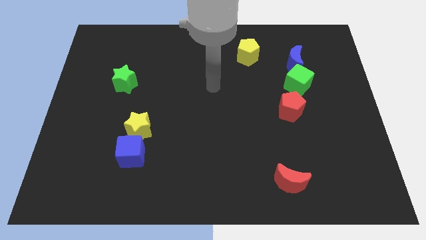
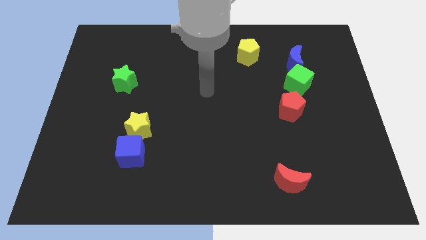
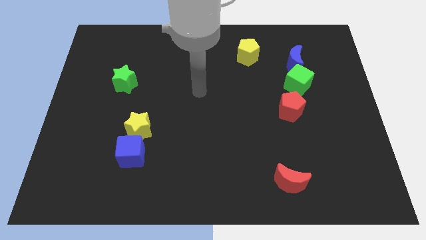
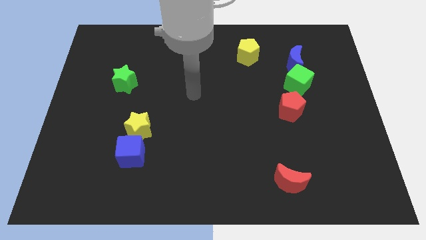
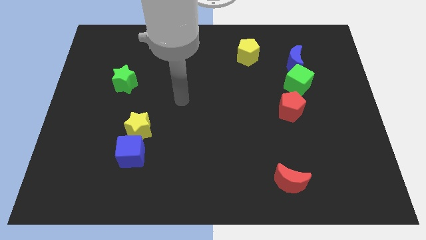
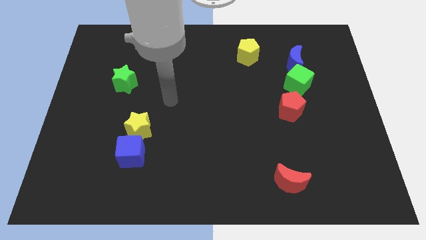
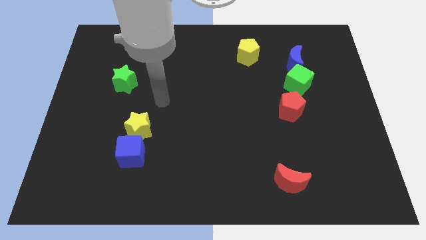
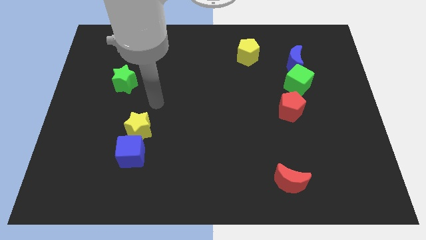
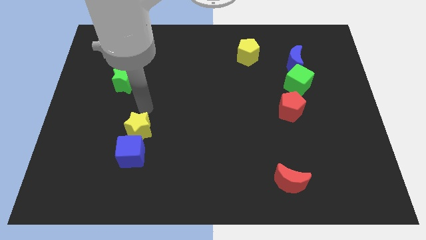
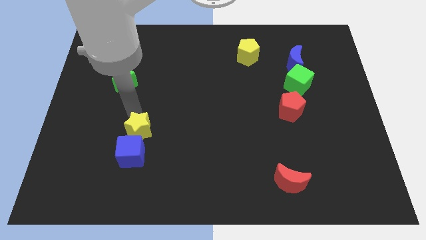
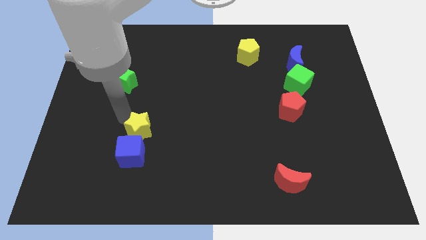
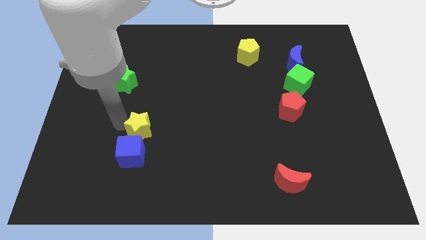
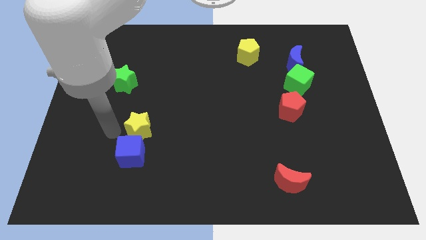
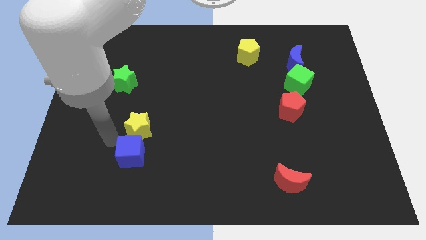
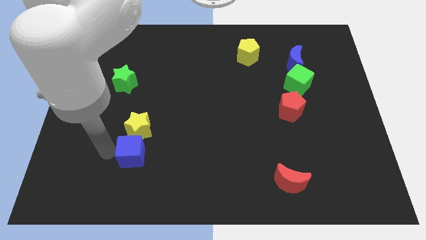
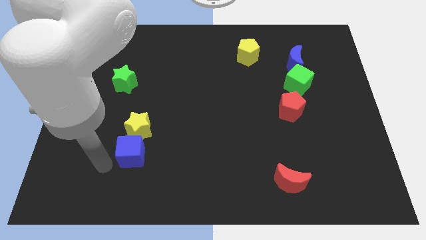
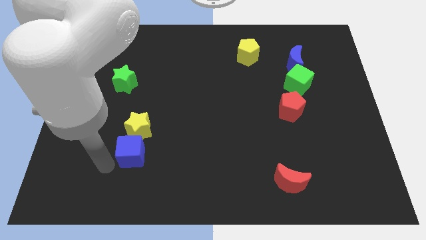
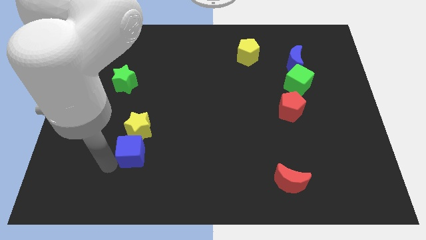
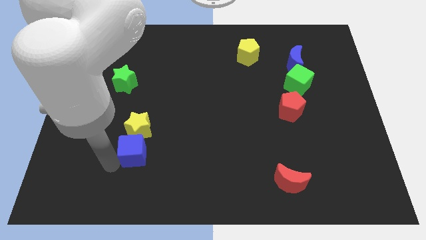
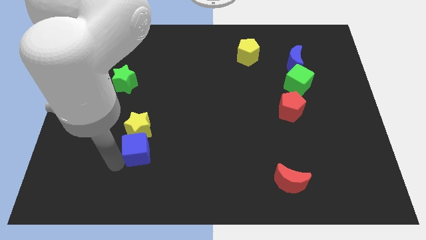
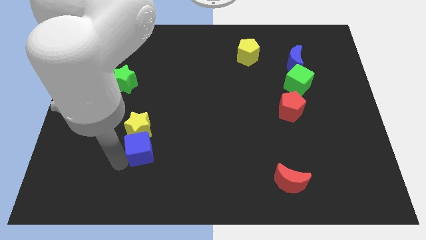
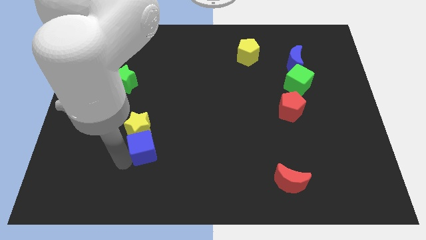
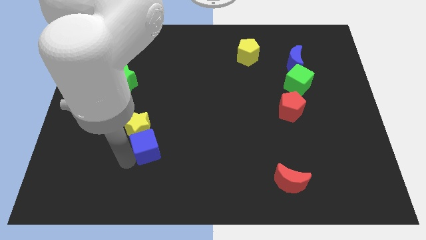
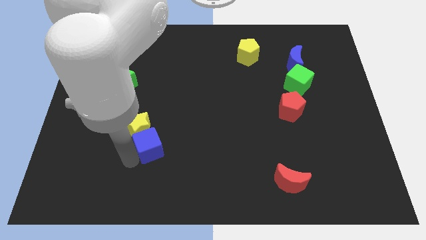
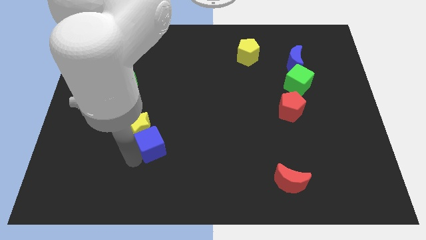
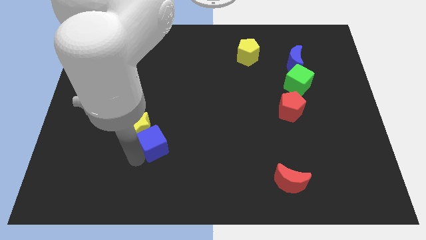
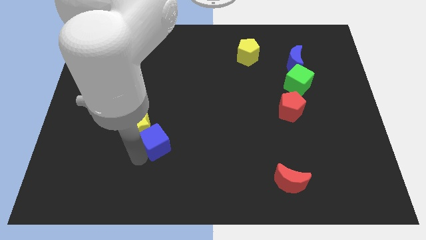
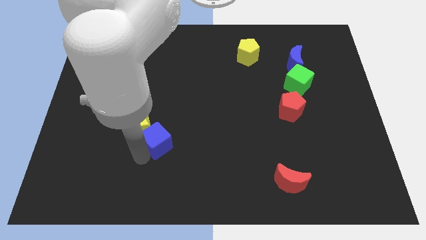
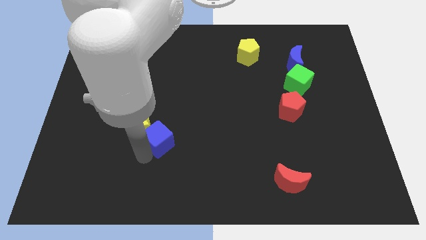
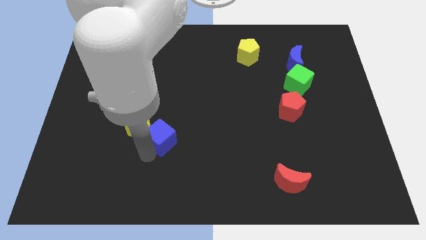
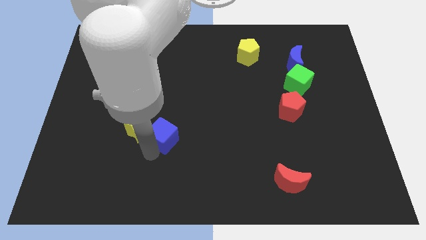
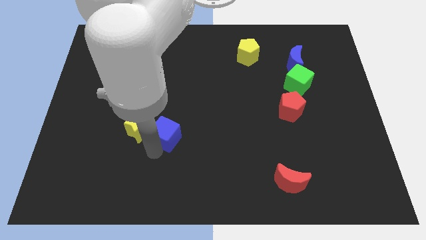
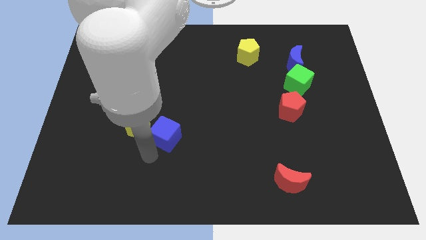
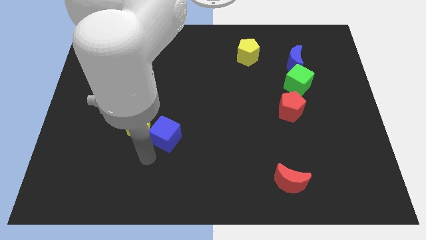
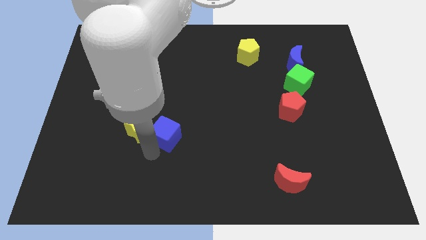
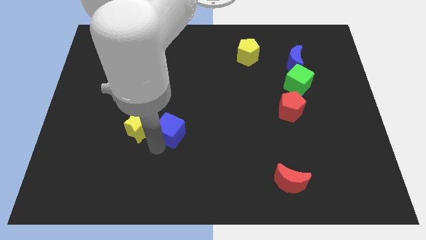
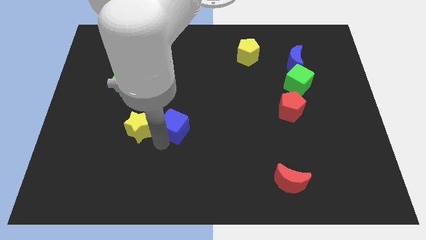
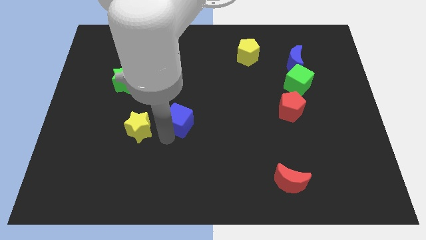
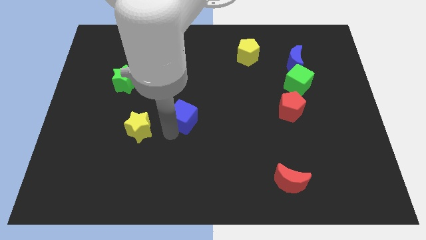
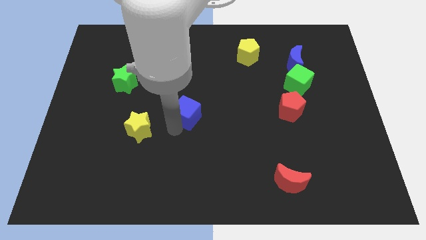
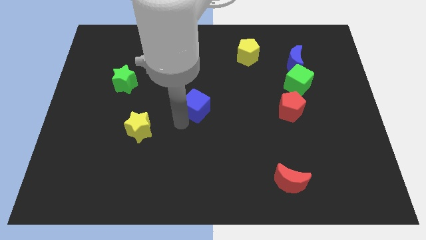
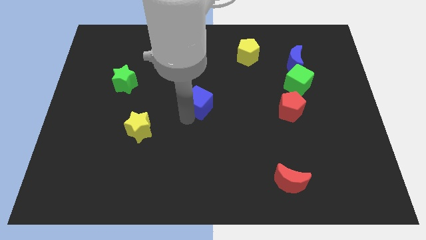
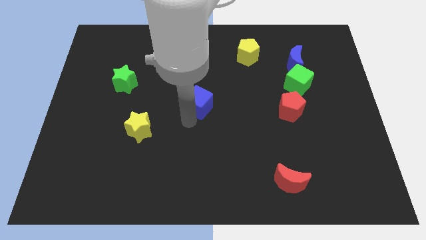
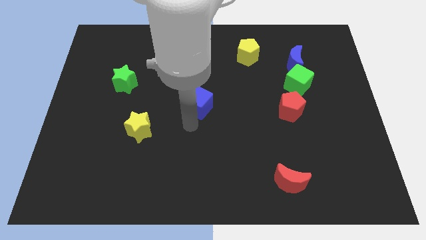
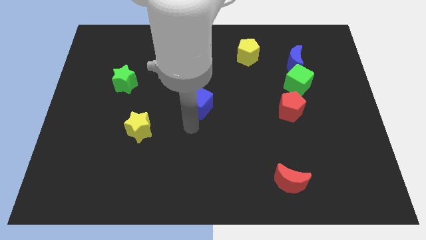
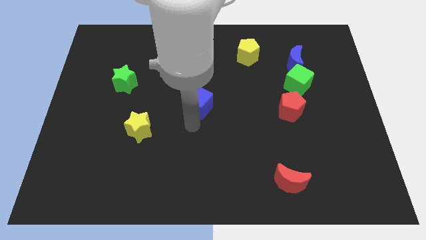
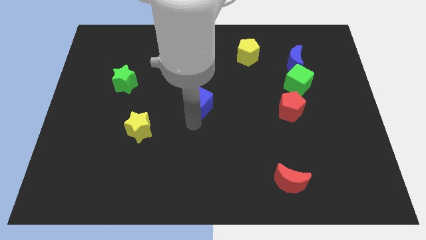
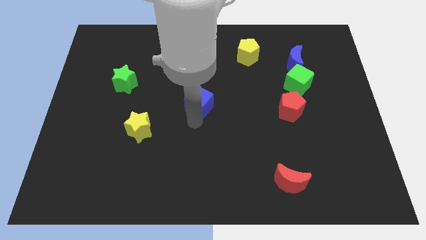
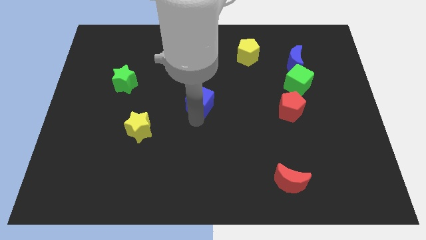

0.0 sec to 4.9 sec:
push the blue cube up and right diagonally

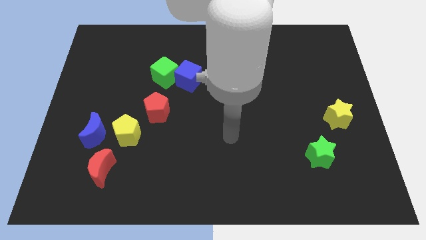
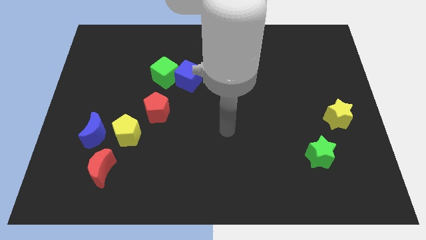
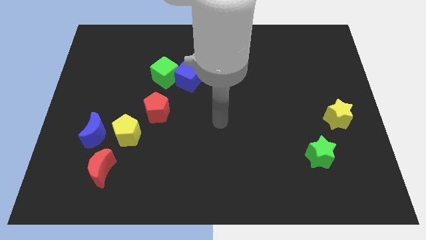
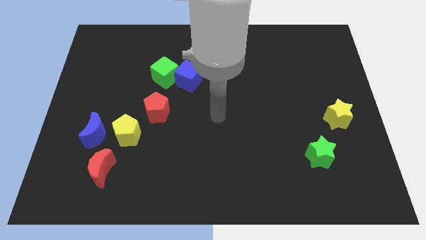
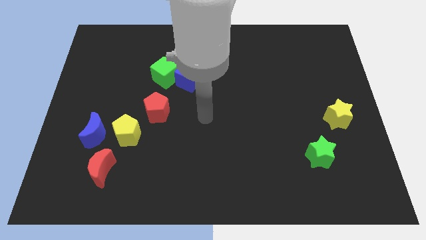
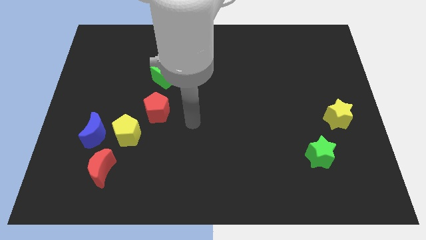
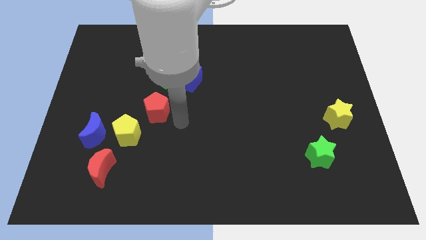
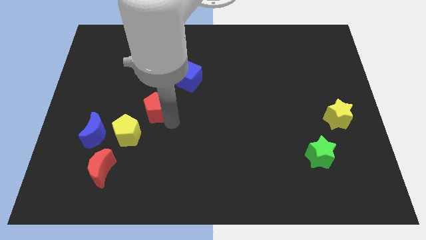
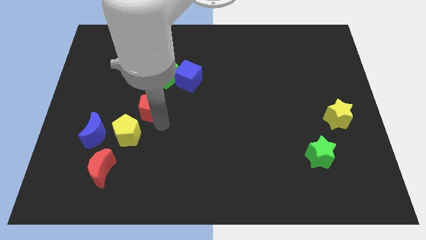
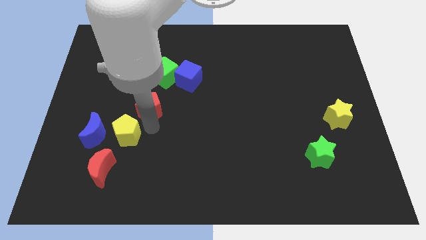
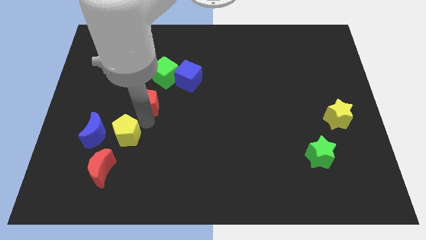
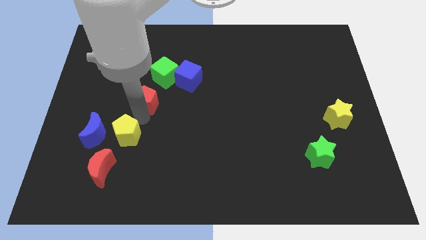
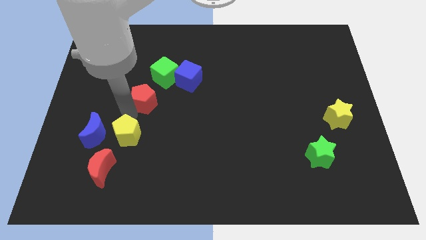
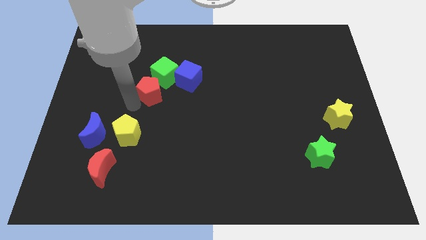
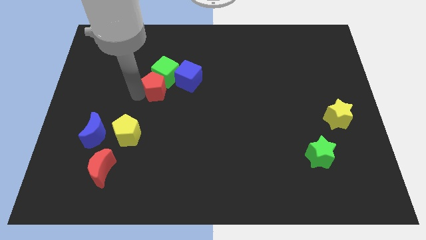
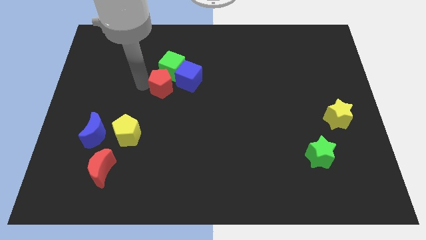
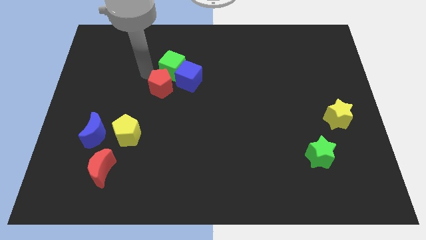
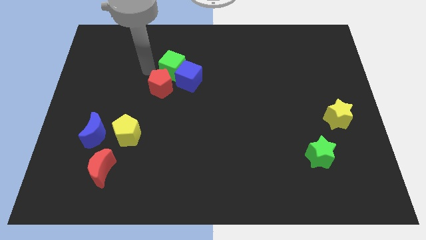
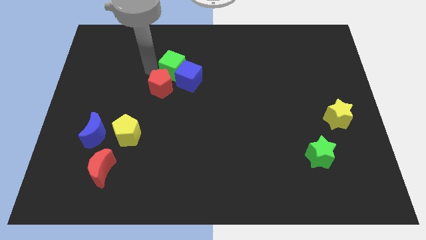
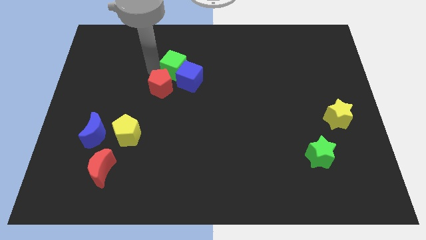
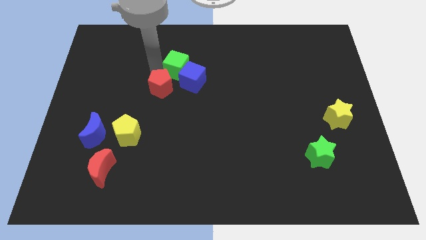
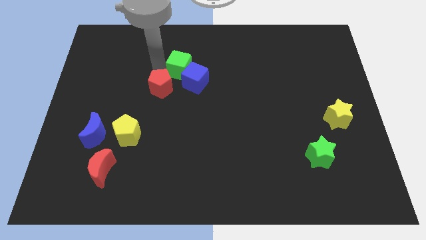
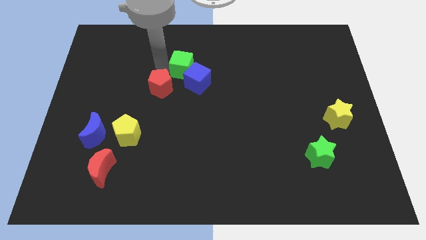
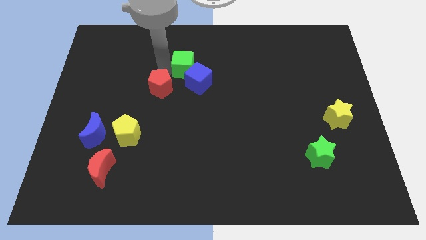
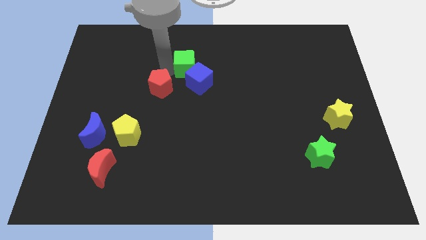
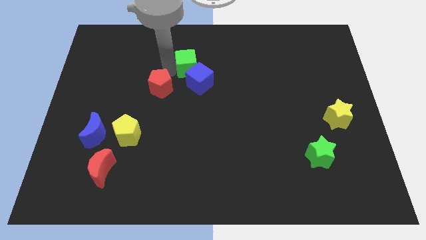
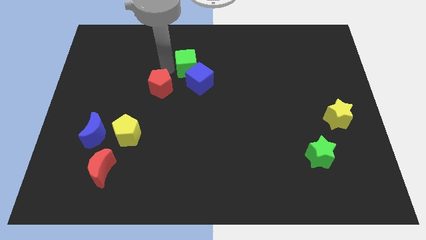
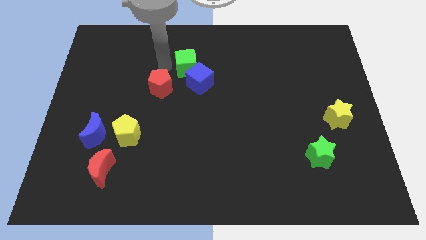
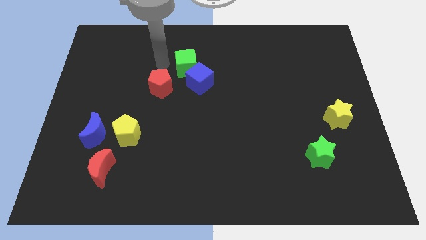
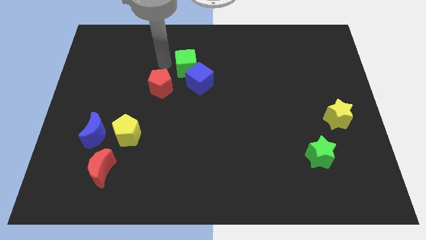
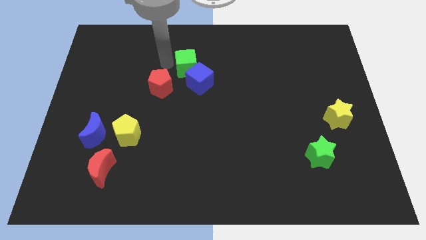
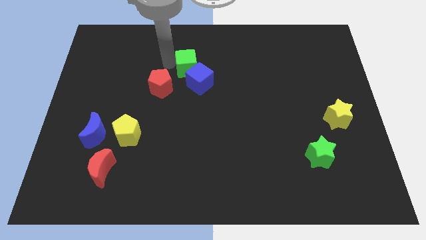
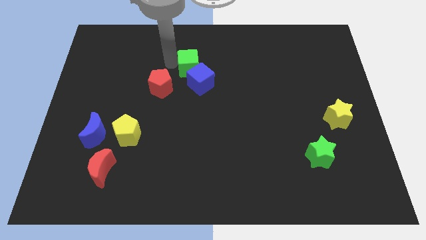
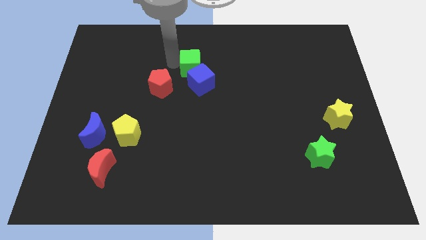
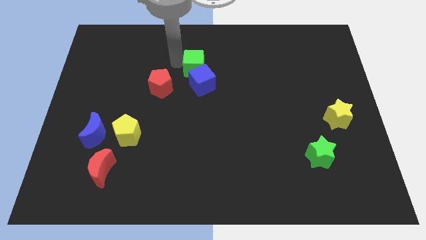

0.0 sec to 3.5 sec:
slide the green cube slightly right
